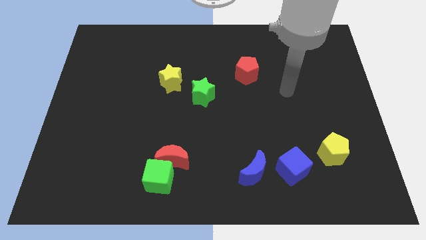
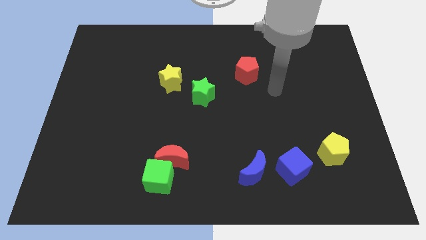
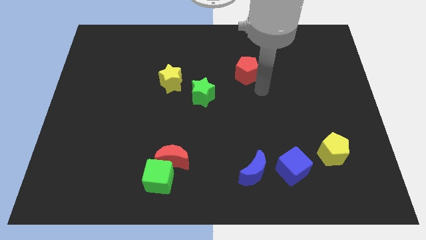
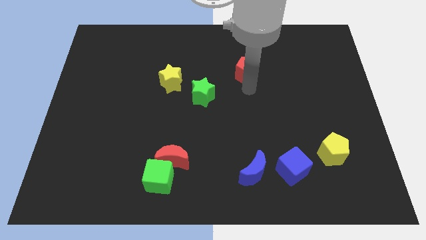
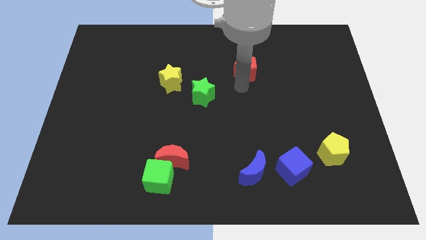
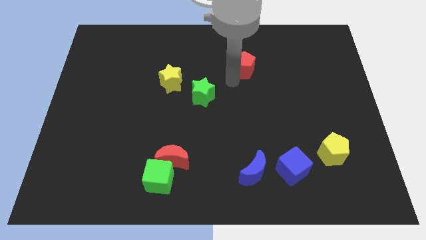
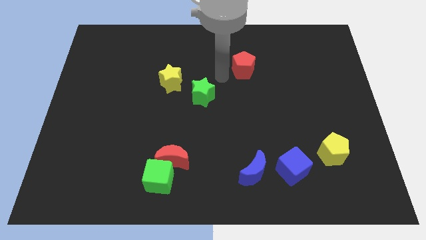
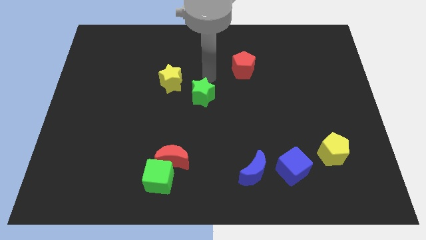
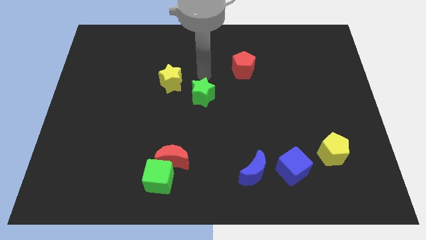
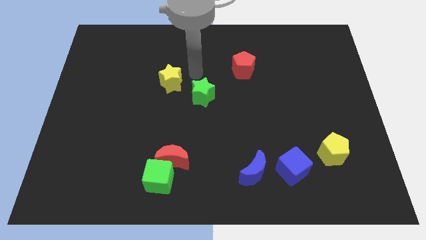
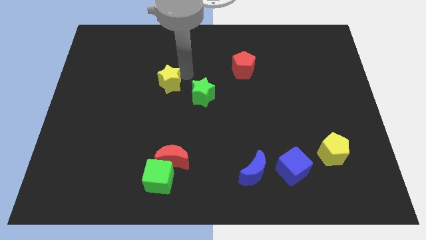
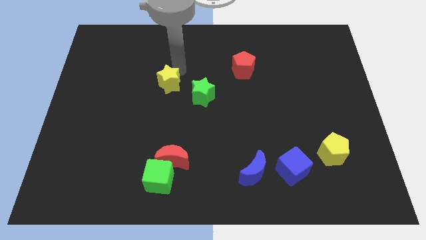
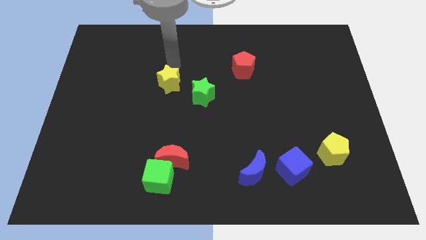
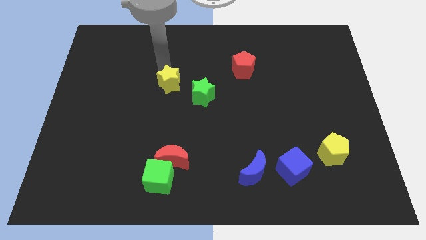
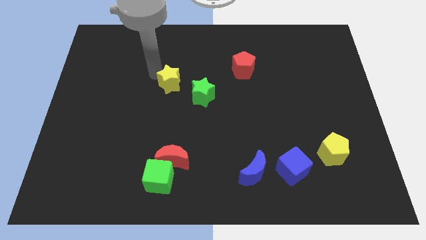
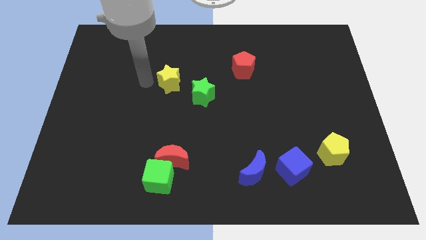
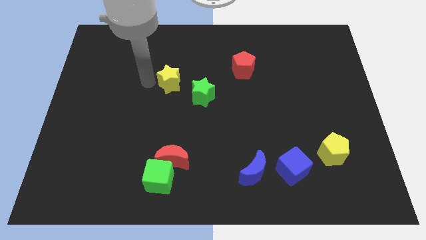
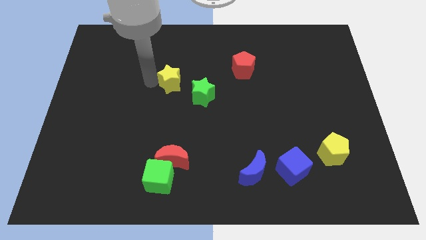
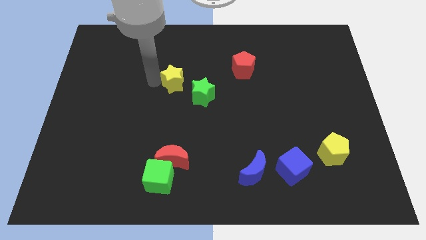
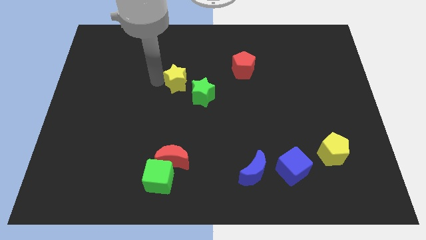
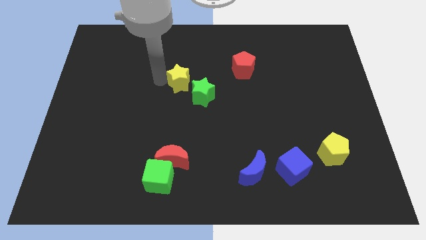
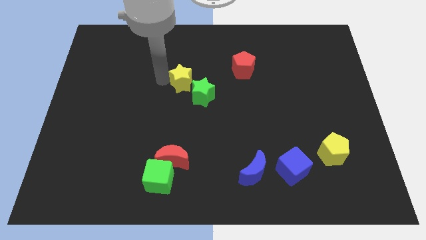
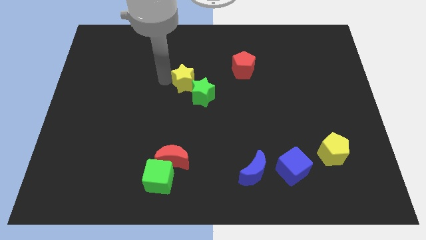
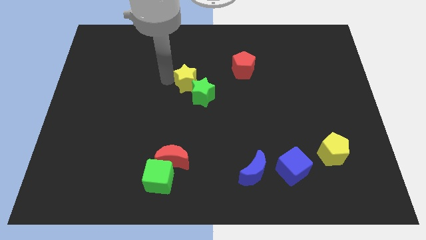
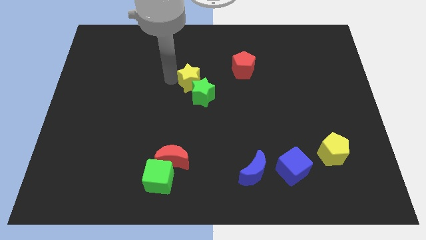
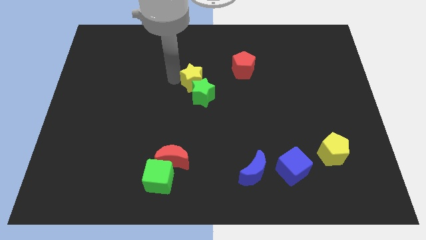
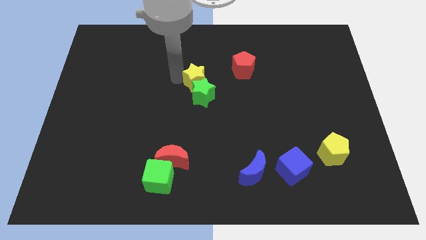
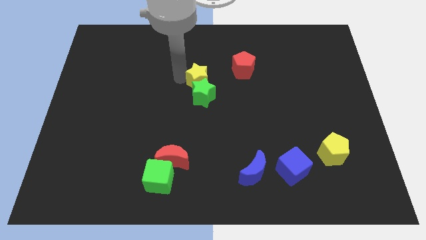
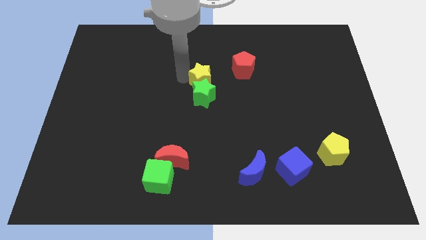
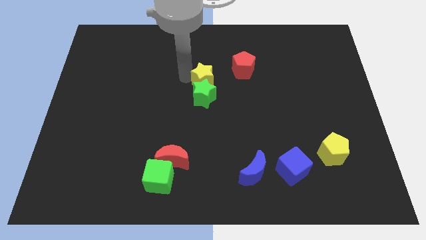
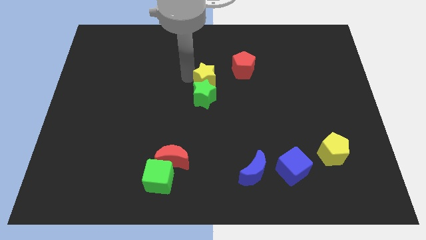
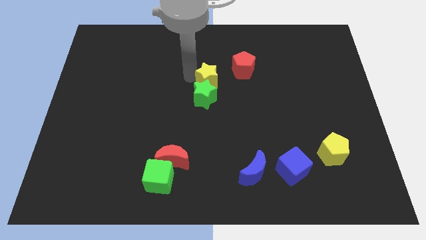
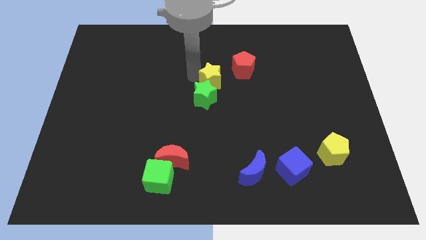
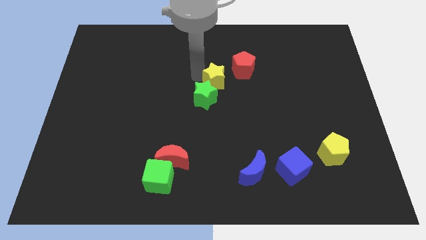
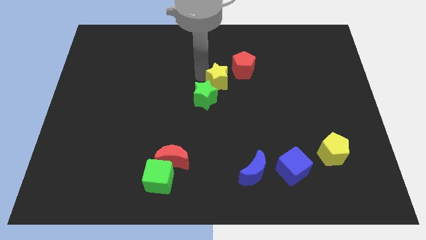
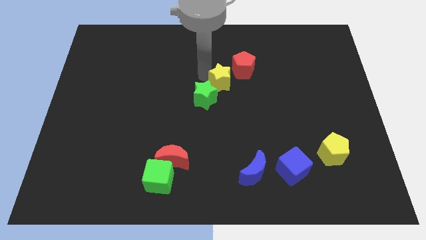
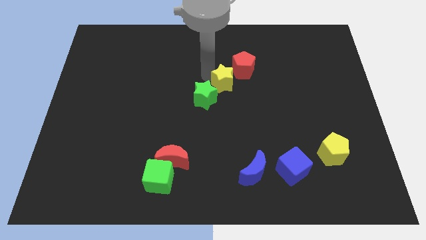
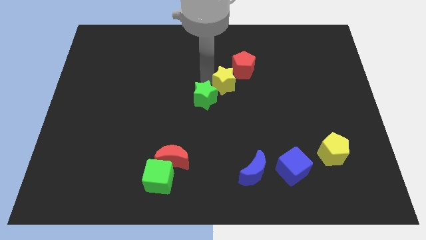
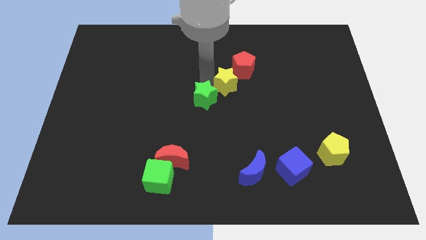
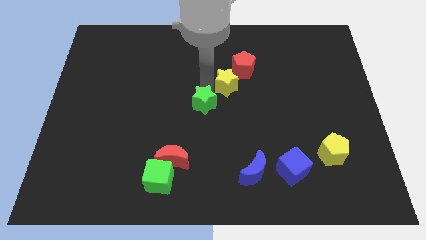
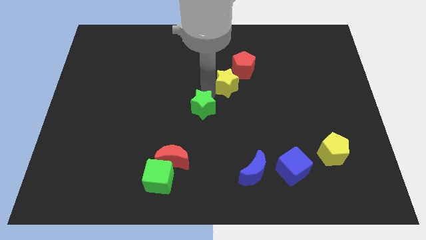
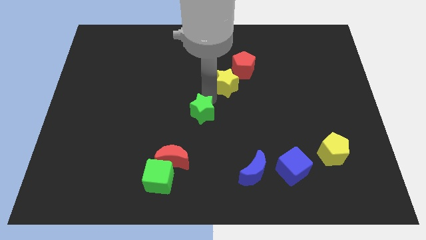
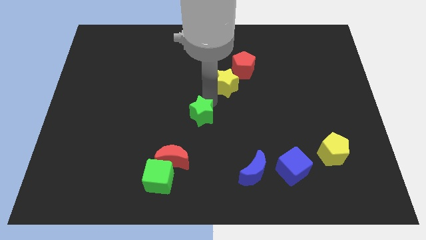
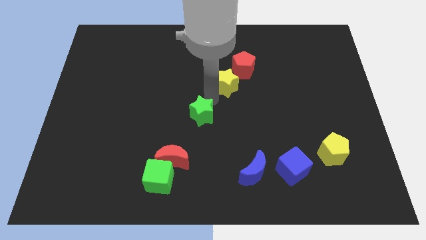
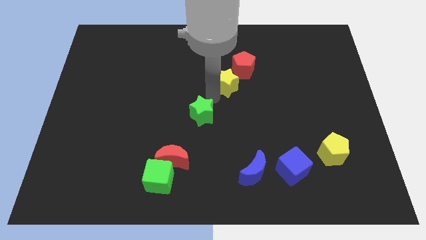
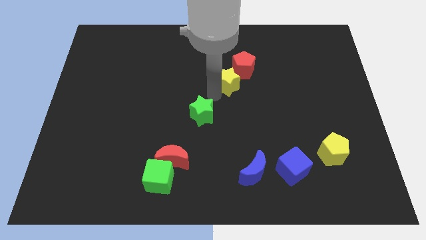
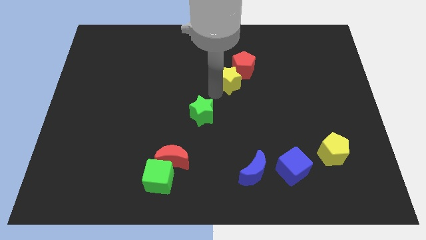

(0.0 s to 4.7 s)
push the yellow star towards the red pentagon

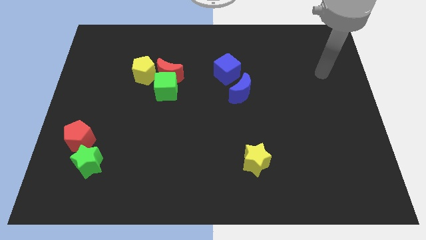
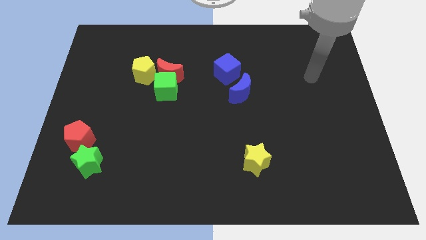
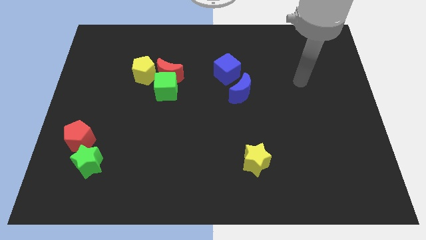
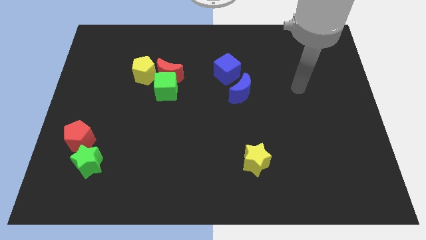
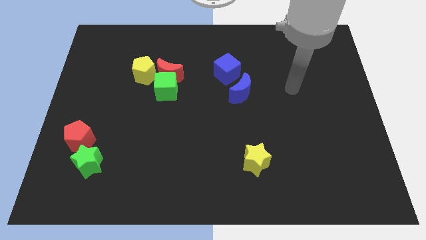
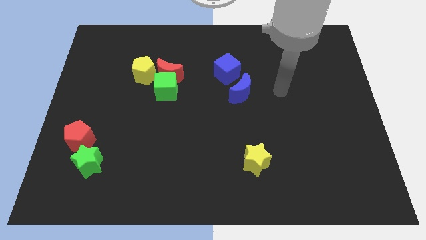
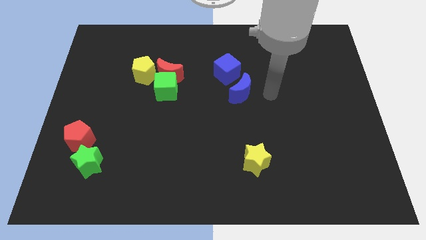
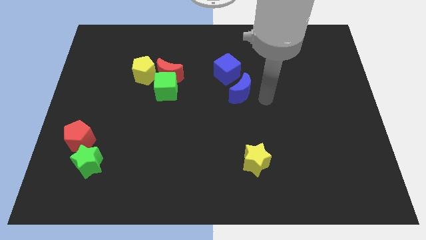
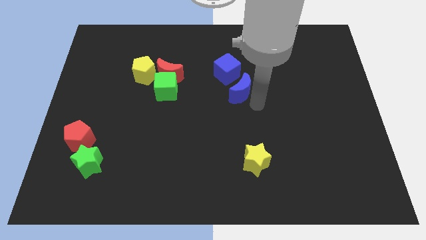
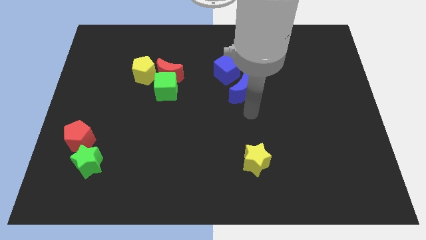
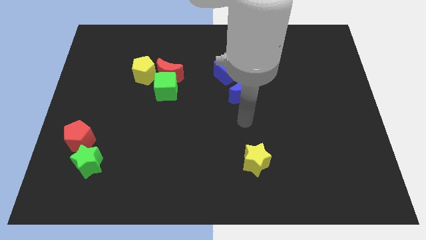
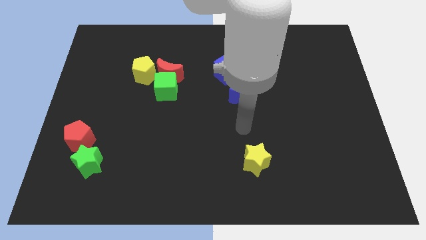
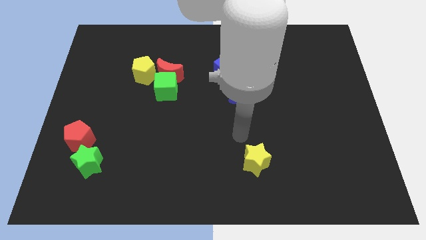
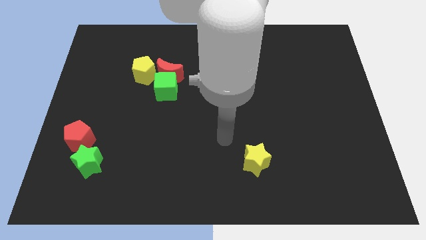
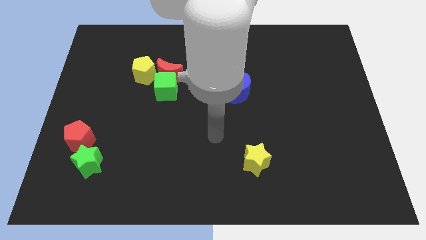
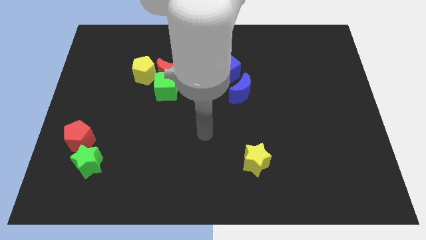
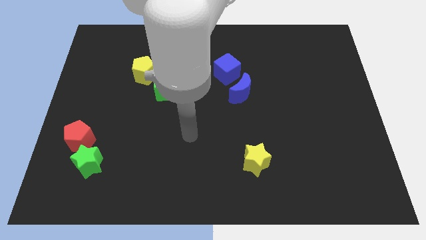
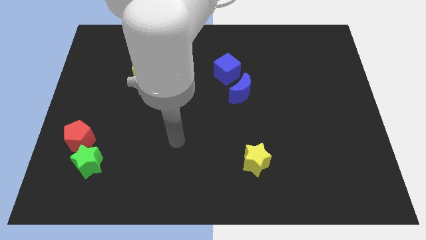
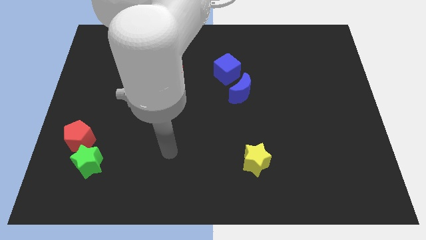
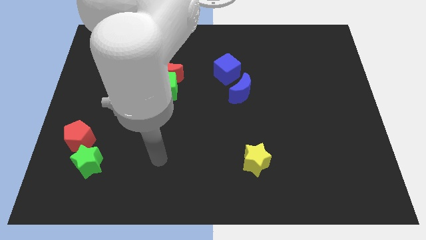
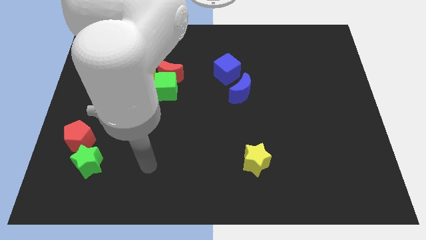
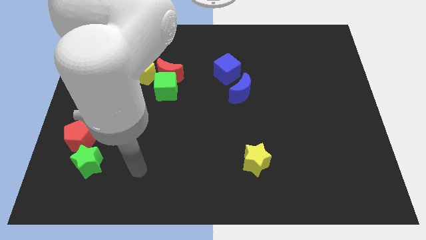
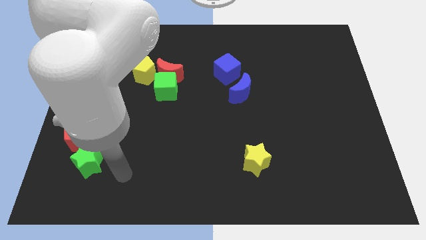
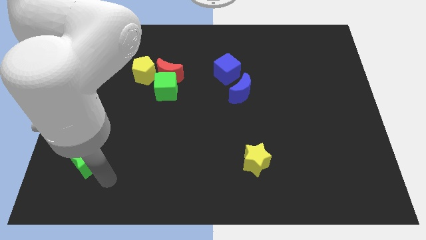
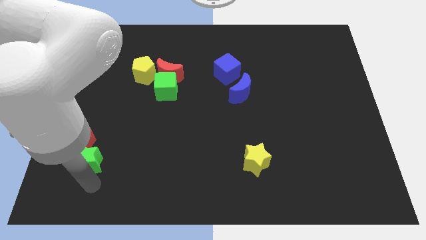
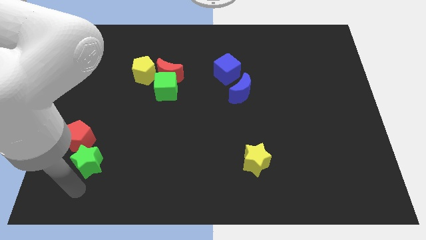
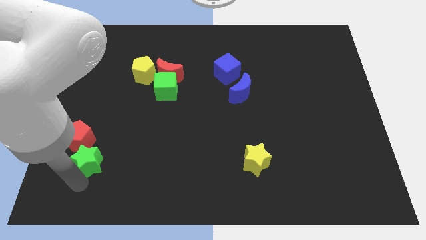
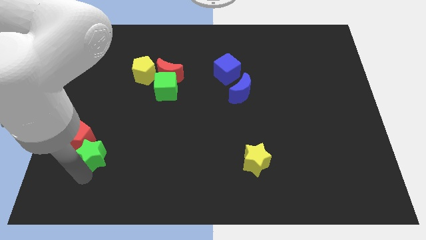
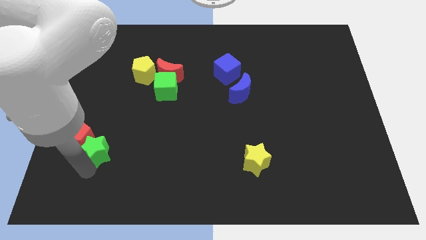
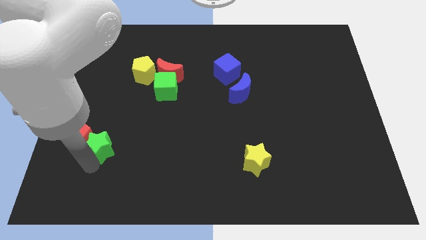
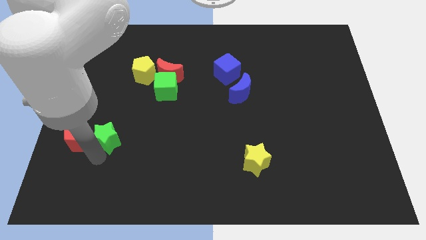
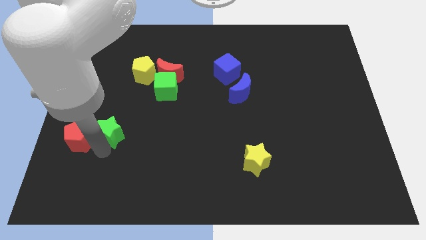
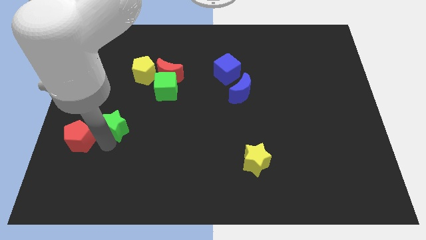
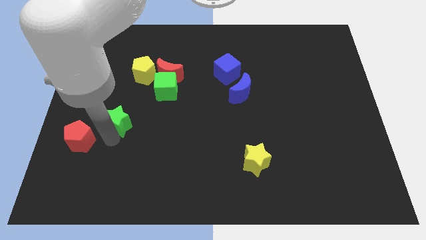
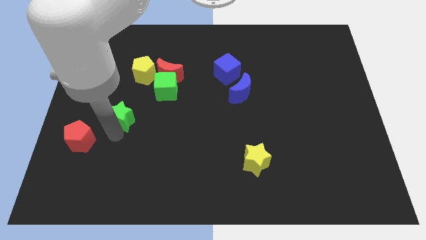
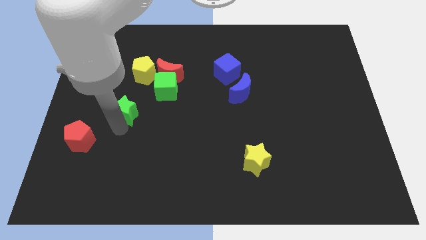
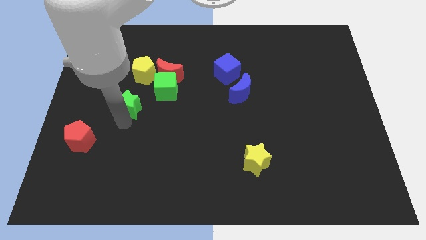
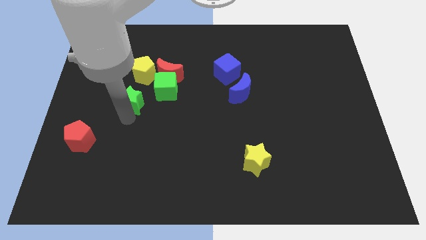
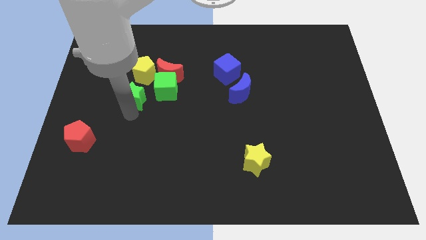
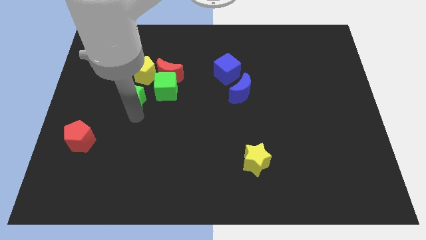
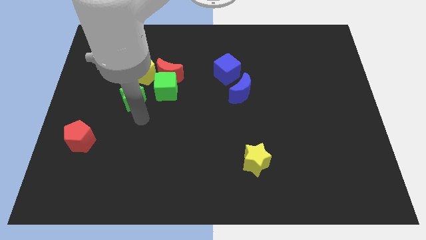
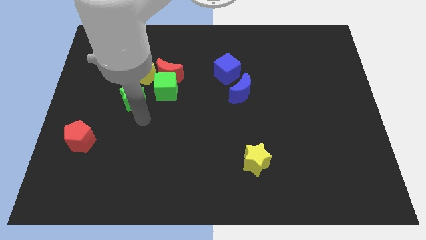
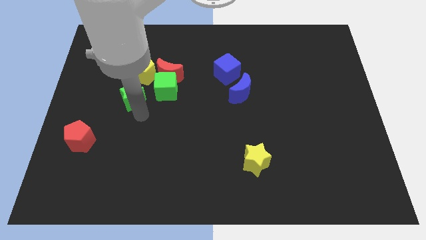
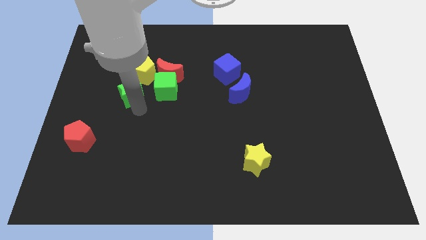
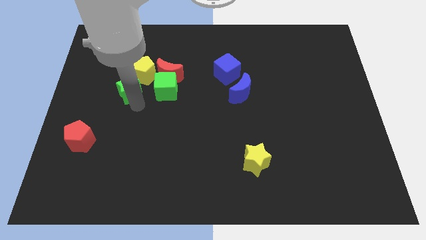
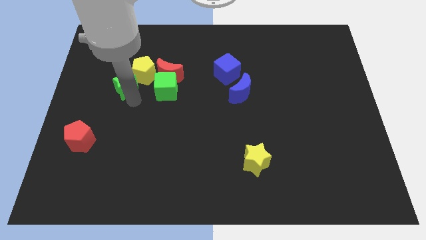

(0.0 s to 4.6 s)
put the green star towards the yellow pentagon
